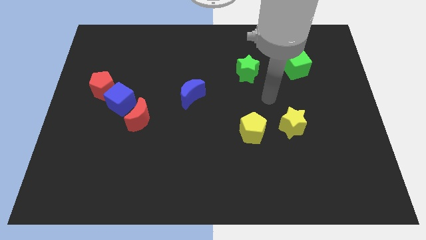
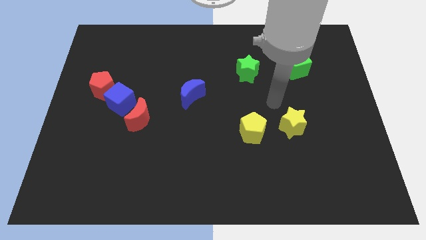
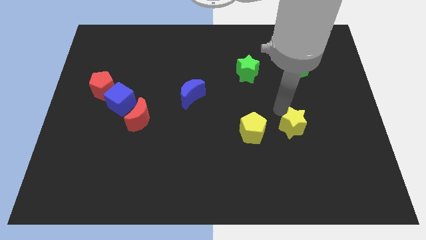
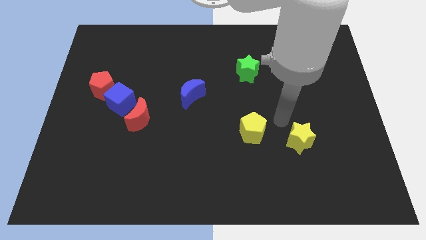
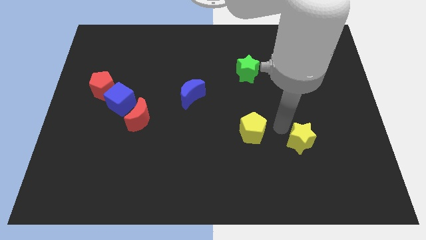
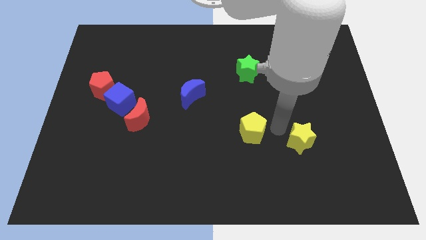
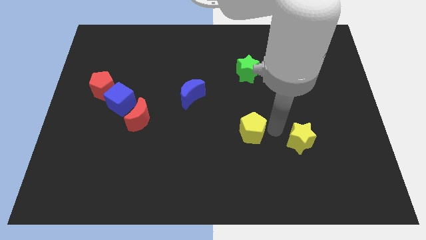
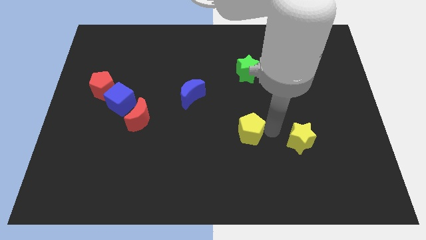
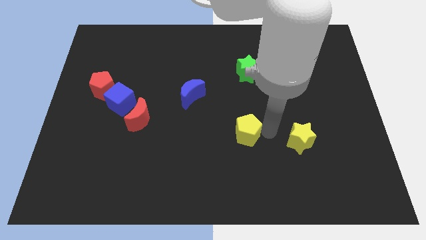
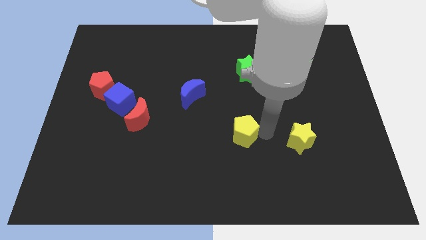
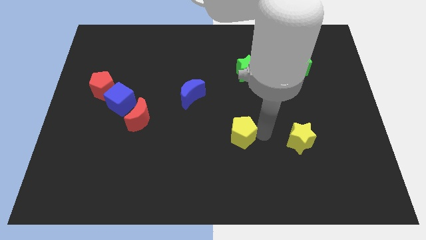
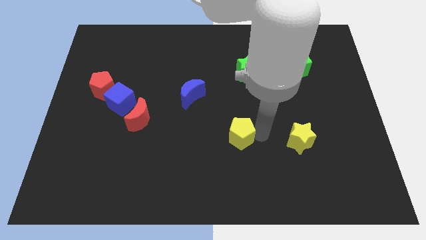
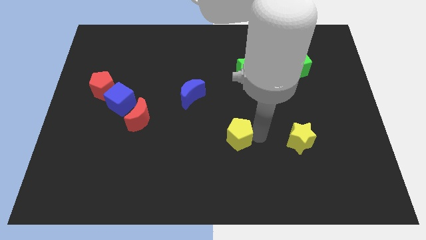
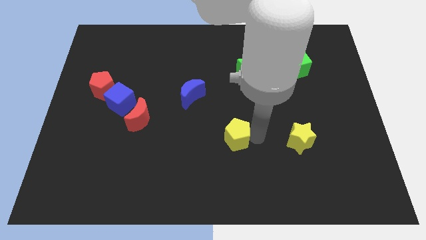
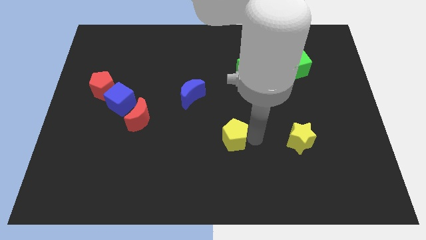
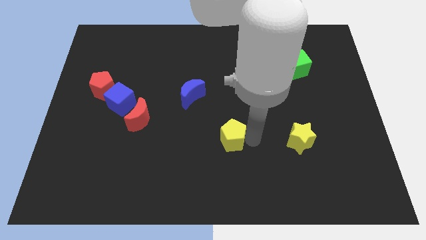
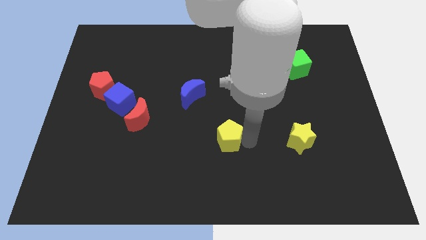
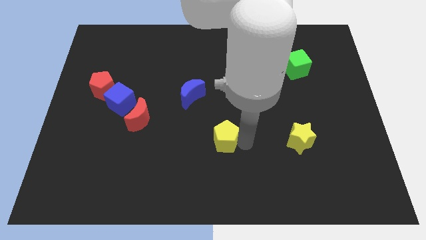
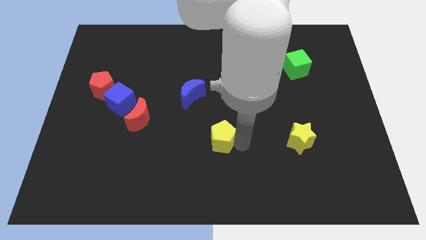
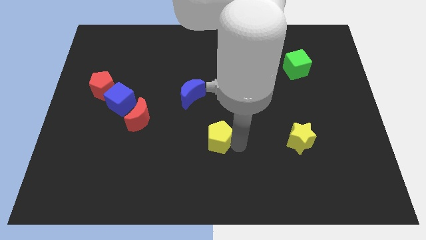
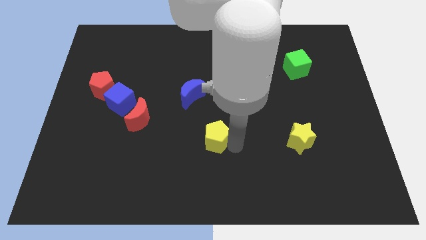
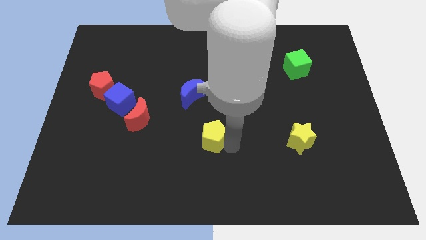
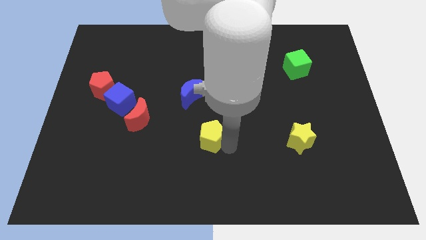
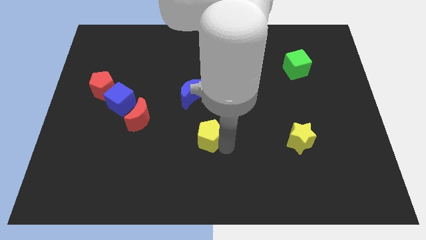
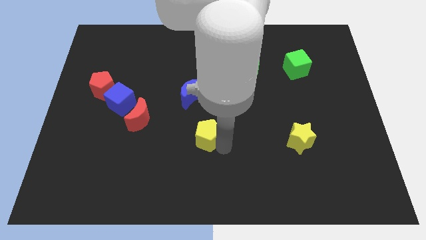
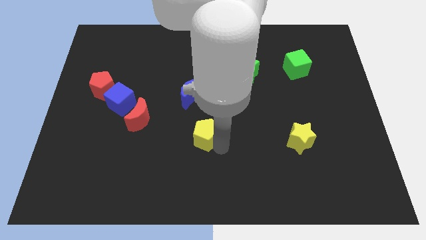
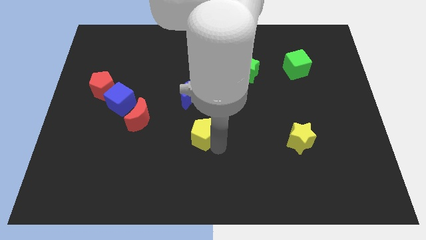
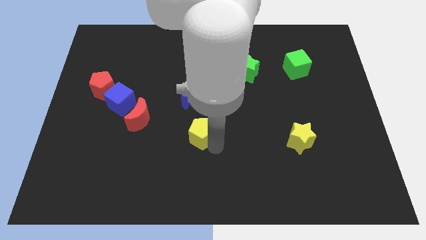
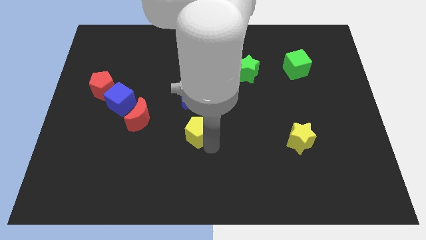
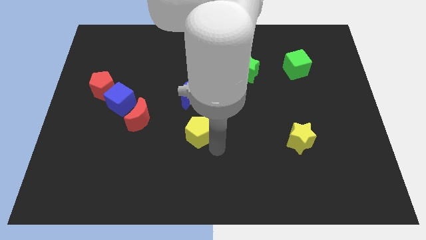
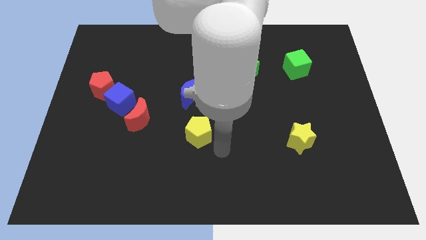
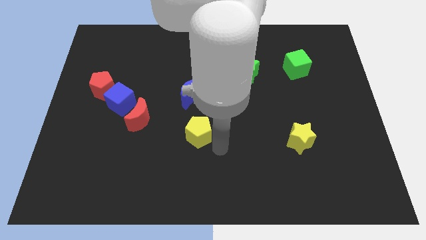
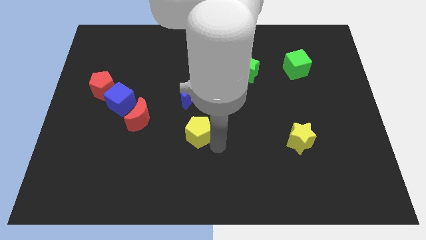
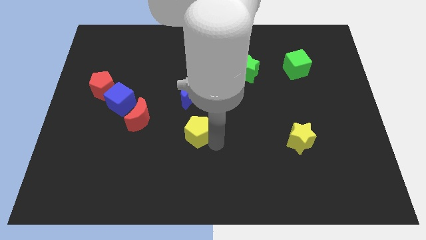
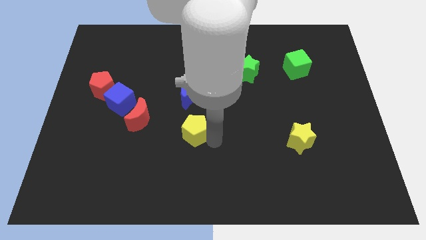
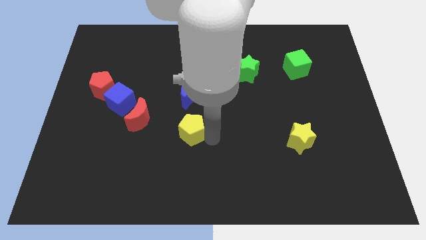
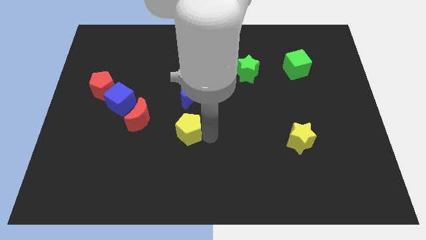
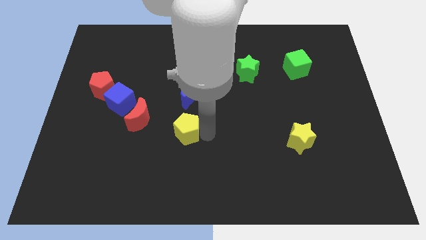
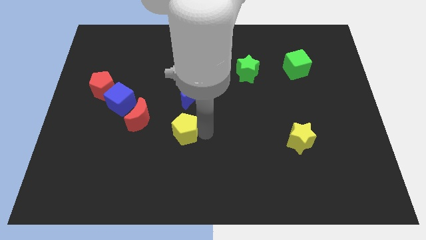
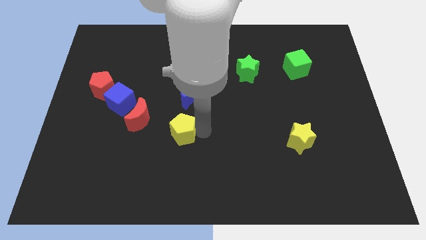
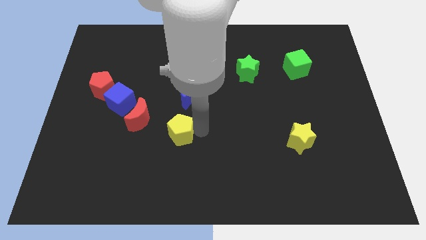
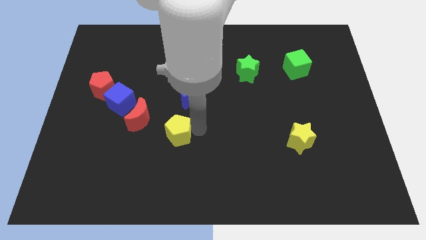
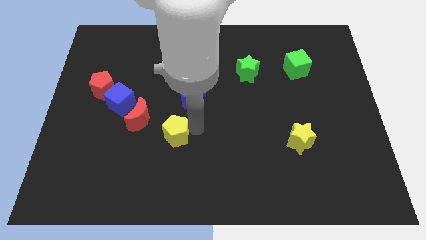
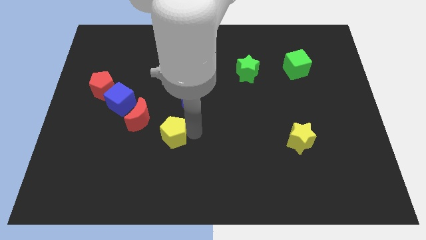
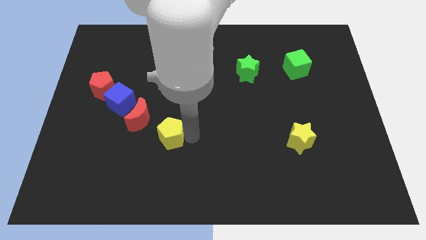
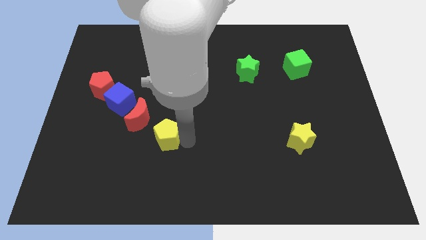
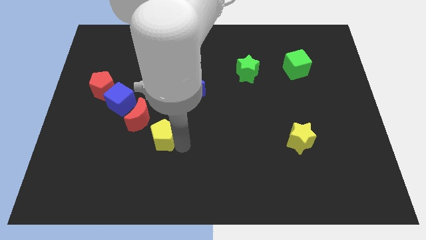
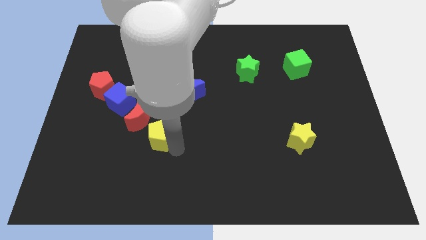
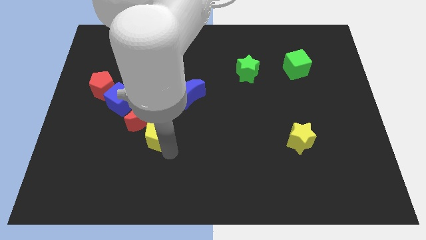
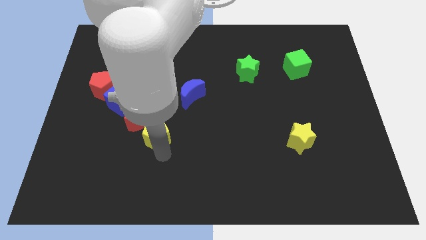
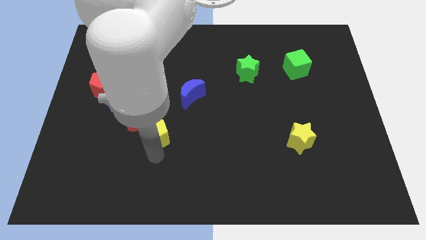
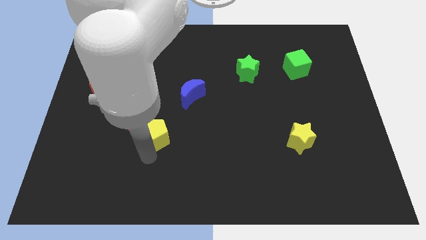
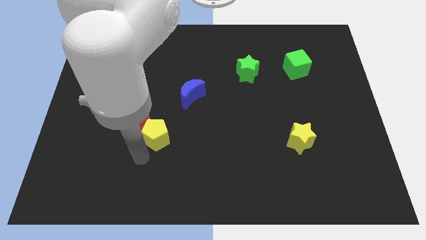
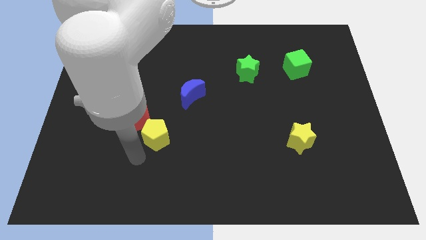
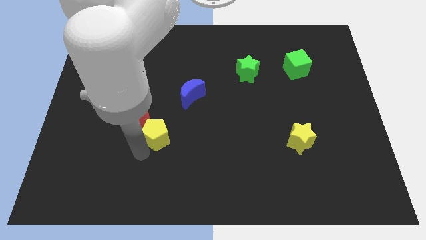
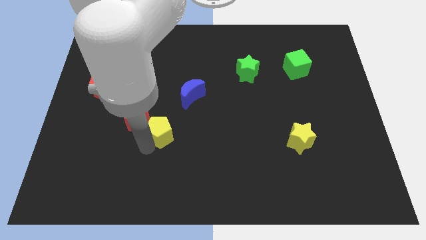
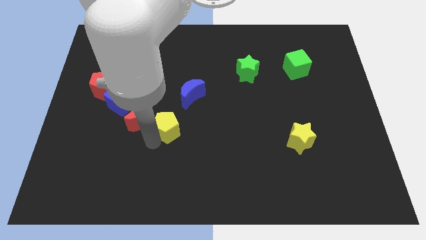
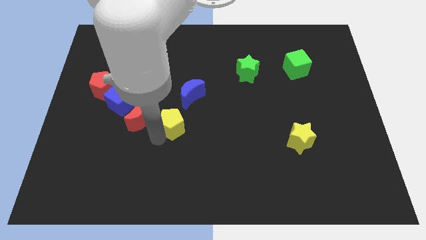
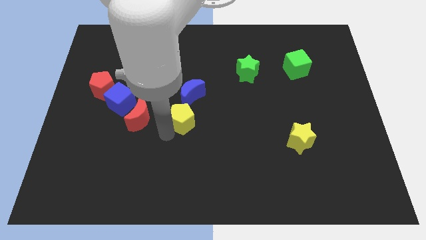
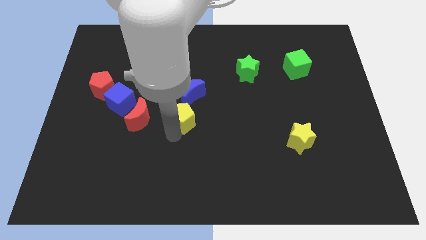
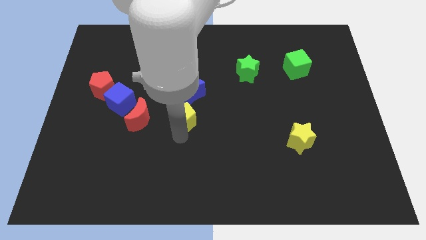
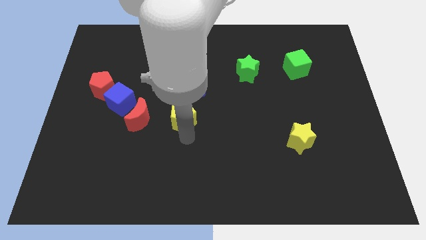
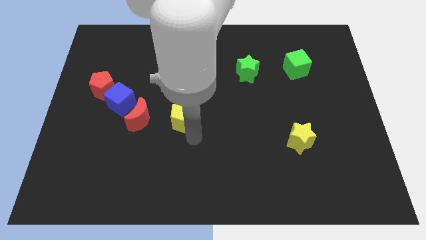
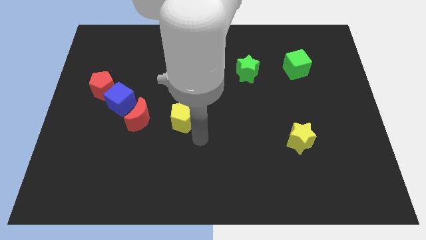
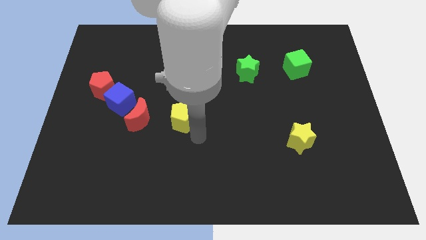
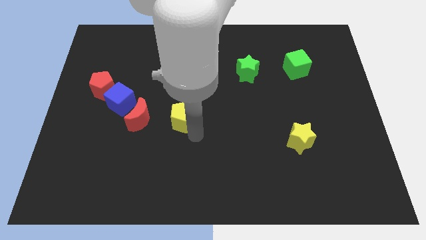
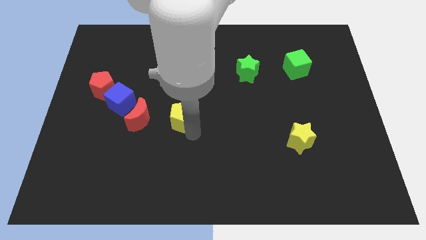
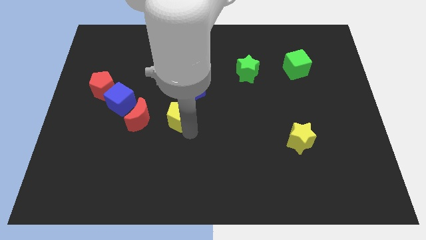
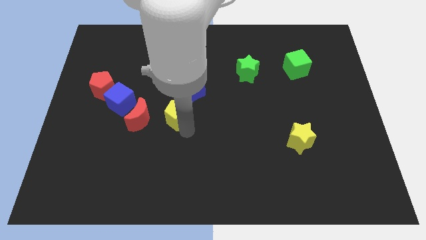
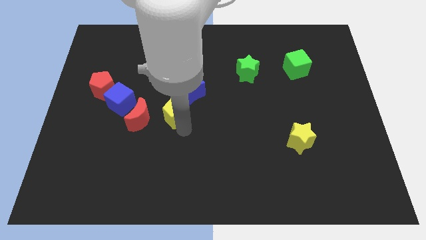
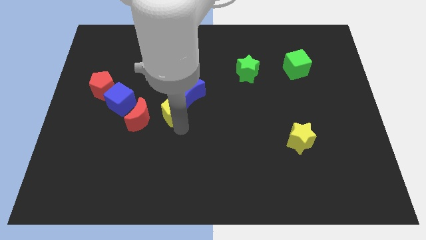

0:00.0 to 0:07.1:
put the yellow pentagon diagonally up and to the right of the red moon
